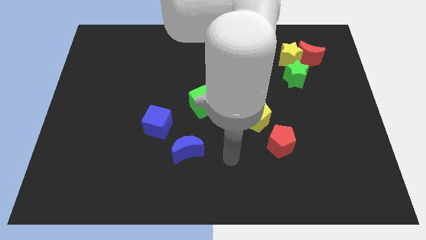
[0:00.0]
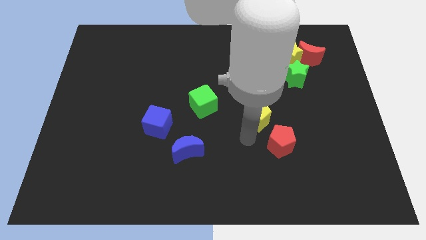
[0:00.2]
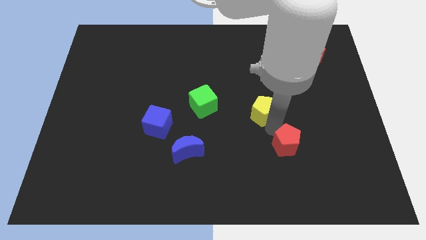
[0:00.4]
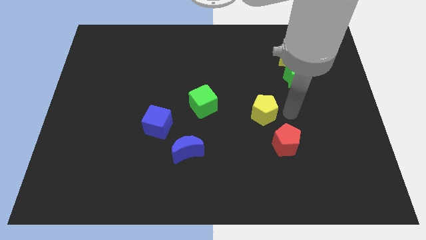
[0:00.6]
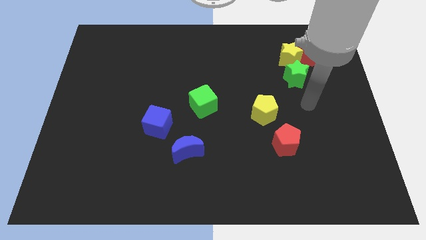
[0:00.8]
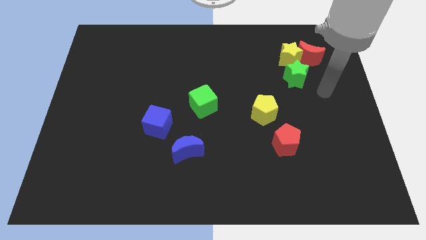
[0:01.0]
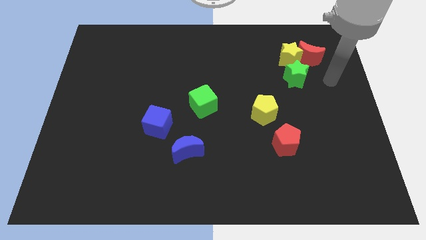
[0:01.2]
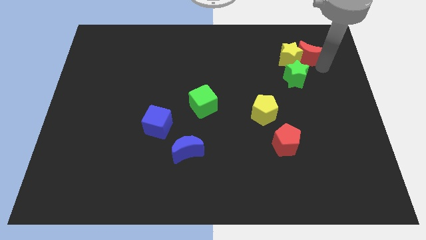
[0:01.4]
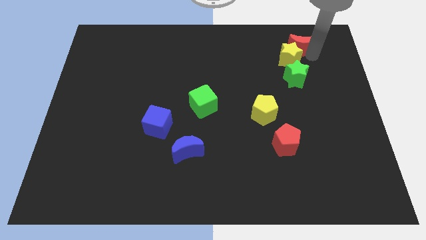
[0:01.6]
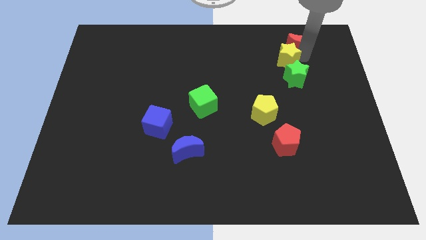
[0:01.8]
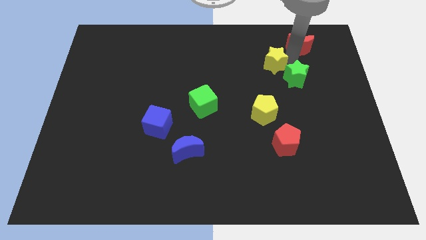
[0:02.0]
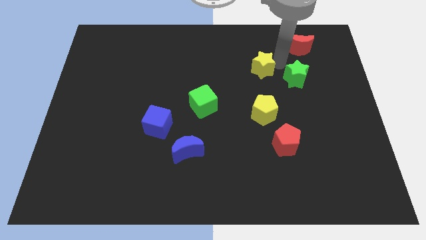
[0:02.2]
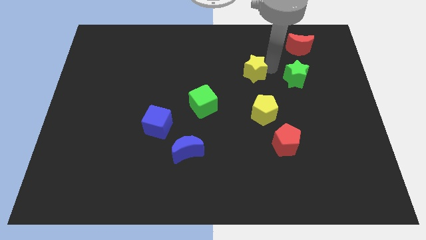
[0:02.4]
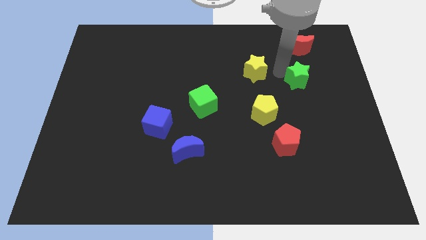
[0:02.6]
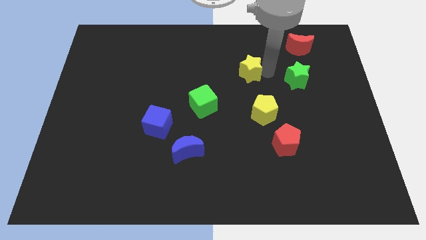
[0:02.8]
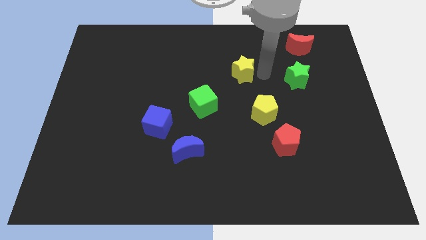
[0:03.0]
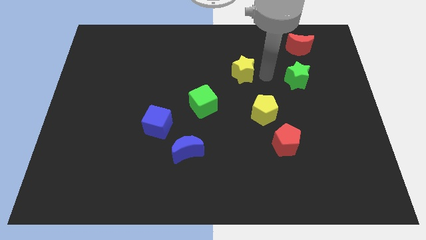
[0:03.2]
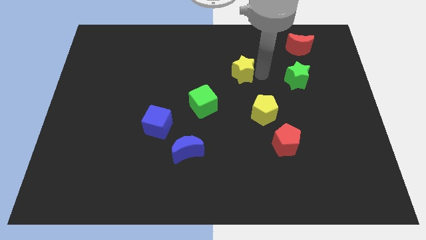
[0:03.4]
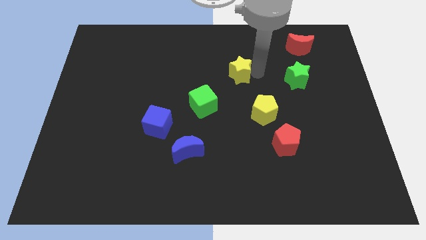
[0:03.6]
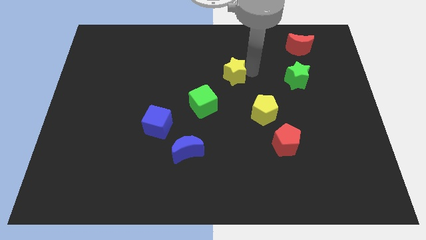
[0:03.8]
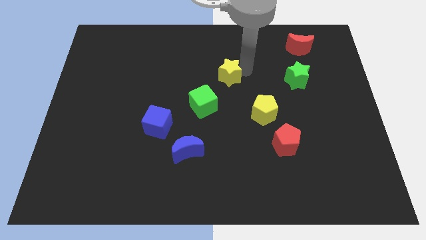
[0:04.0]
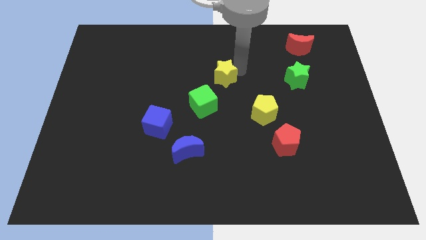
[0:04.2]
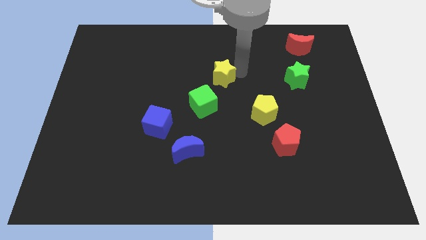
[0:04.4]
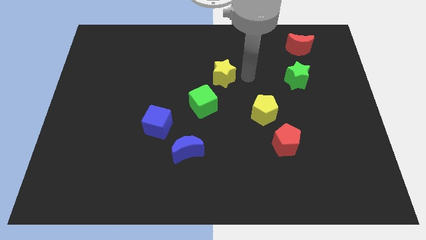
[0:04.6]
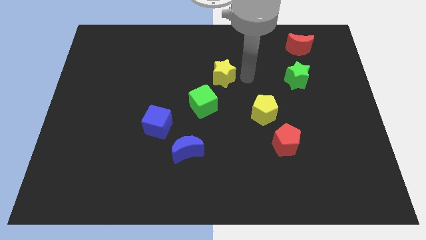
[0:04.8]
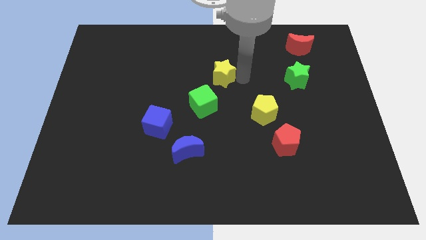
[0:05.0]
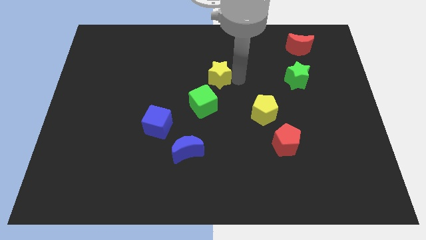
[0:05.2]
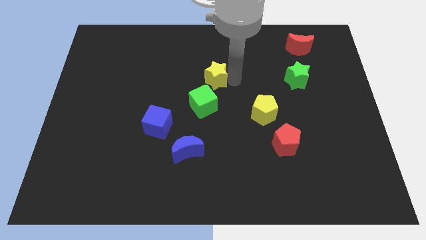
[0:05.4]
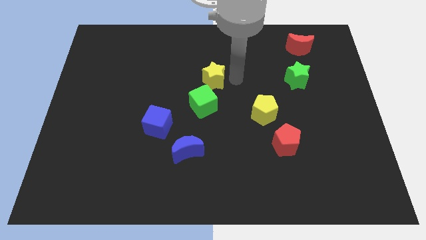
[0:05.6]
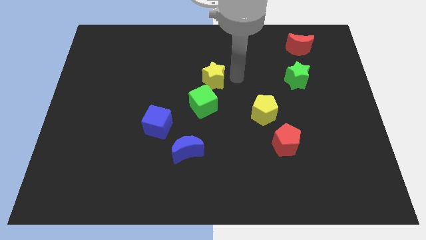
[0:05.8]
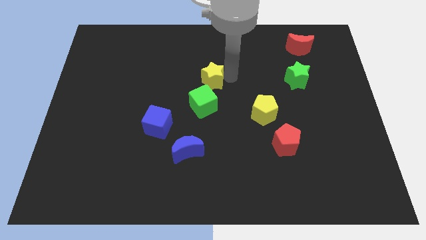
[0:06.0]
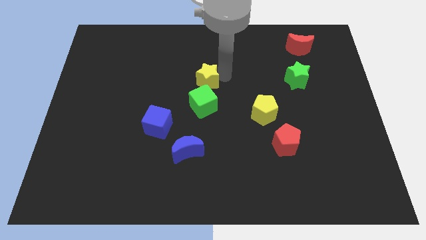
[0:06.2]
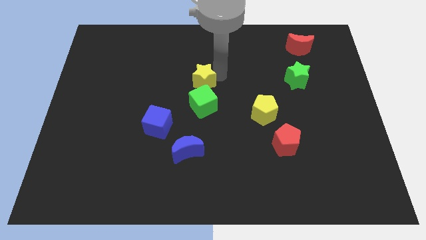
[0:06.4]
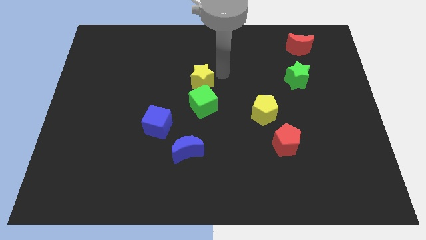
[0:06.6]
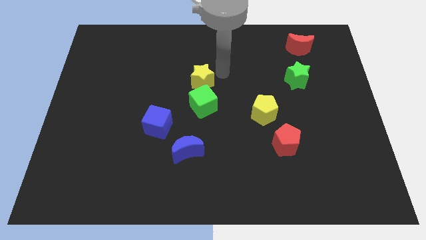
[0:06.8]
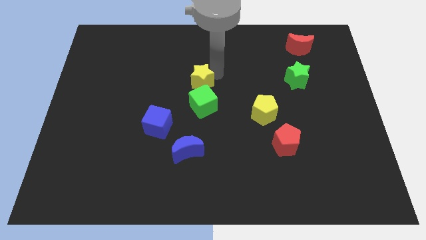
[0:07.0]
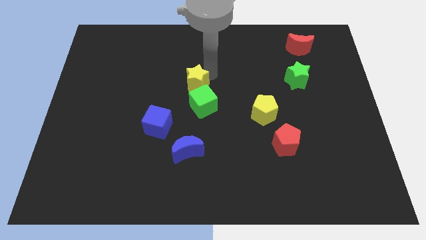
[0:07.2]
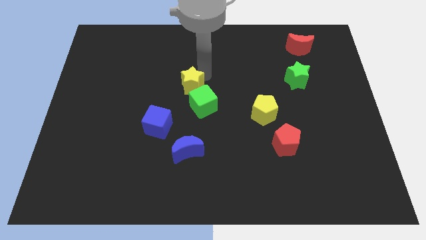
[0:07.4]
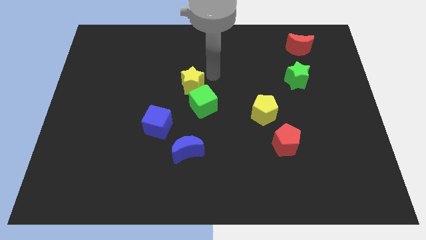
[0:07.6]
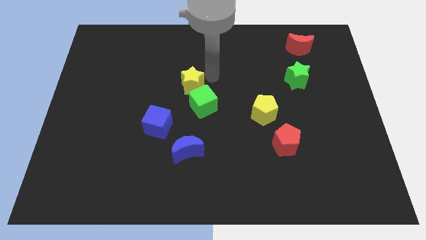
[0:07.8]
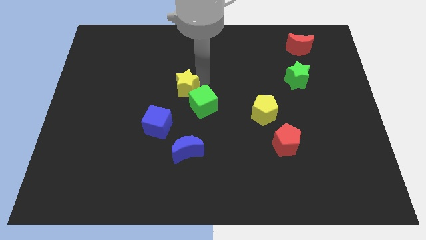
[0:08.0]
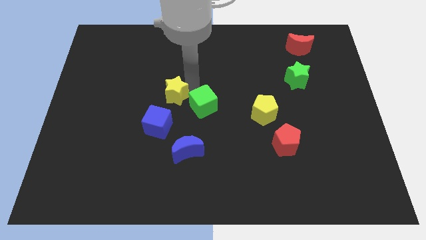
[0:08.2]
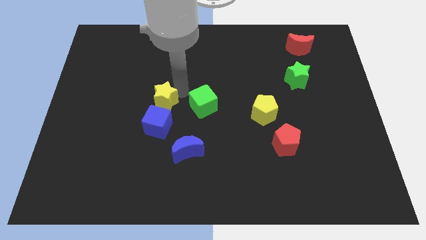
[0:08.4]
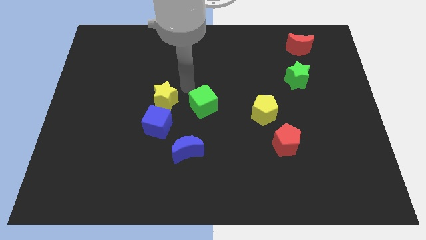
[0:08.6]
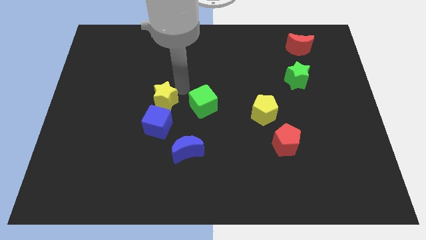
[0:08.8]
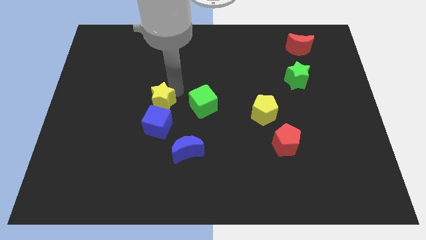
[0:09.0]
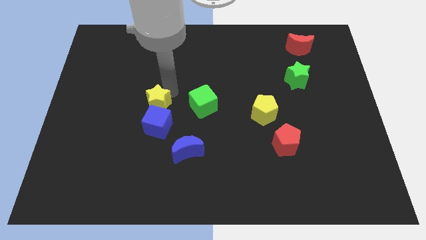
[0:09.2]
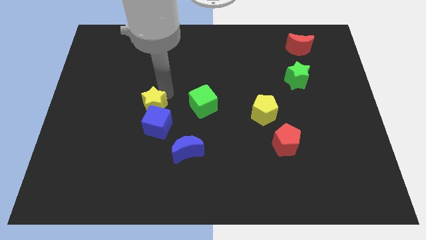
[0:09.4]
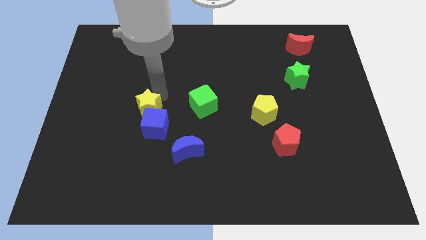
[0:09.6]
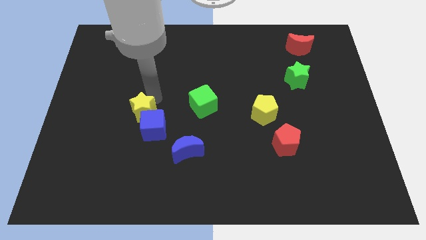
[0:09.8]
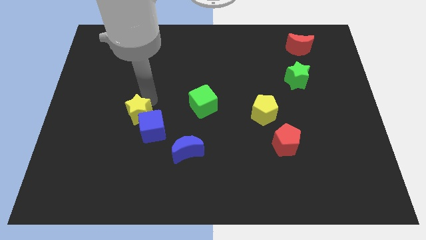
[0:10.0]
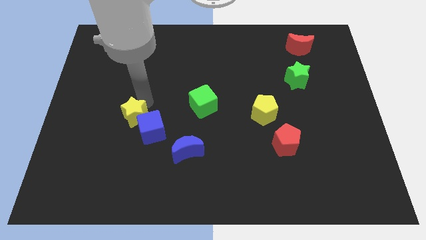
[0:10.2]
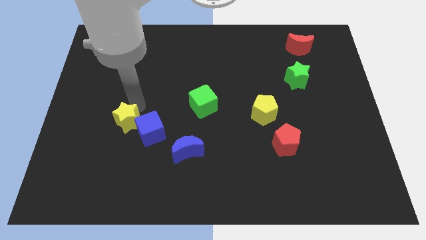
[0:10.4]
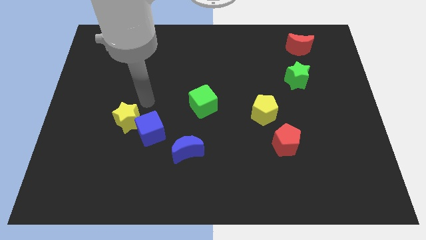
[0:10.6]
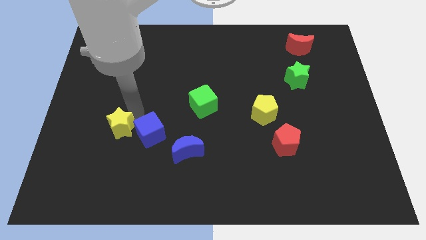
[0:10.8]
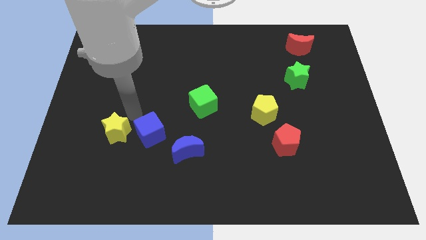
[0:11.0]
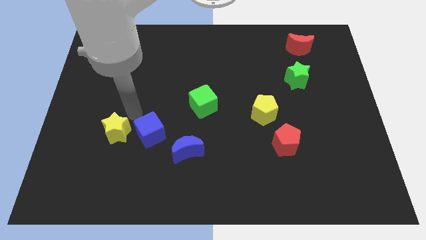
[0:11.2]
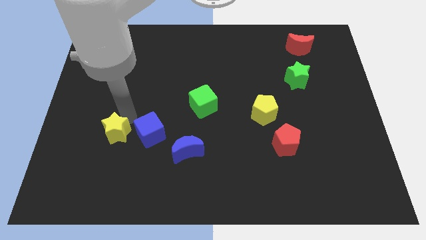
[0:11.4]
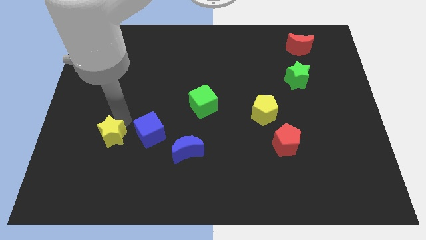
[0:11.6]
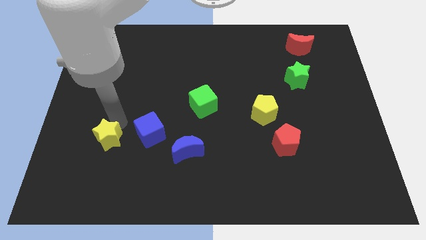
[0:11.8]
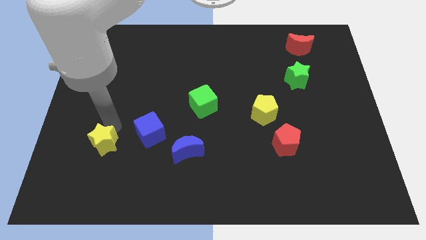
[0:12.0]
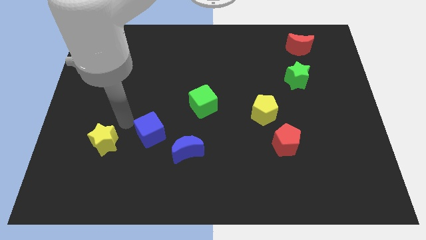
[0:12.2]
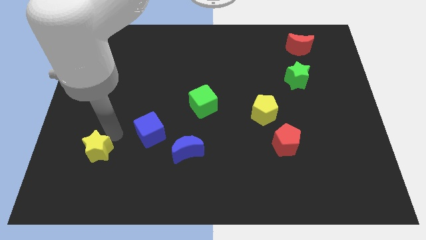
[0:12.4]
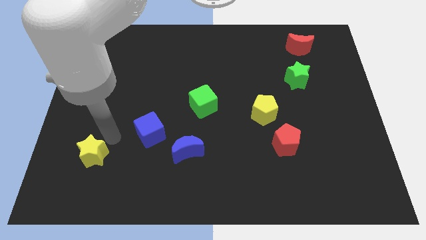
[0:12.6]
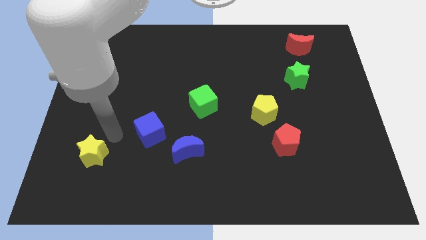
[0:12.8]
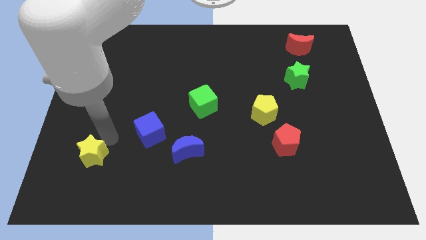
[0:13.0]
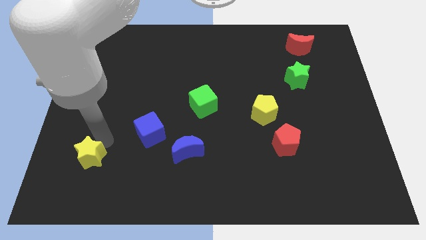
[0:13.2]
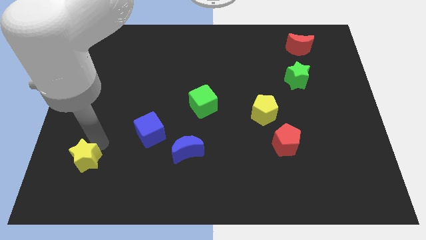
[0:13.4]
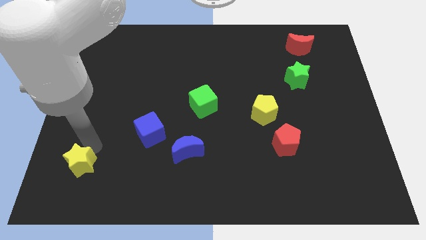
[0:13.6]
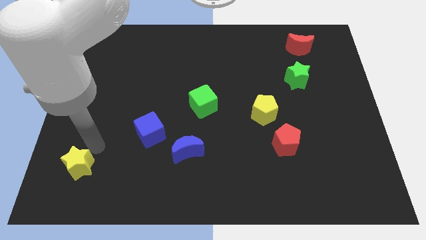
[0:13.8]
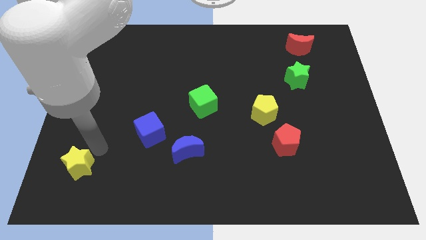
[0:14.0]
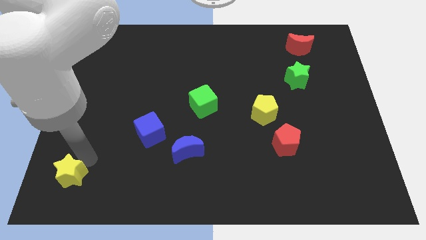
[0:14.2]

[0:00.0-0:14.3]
put the yellow star to the bottom left corner
